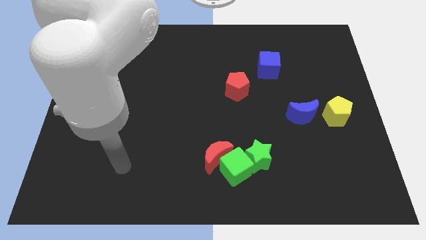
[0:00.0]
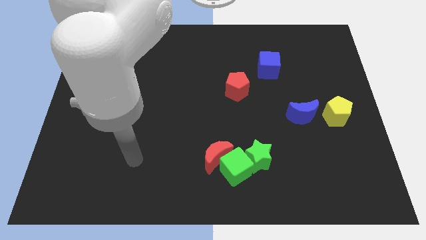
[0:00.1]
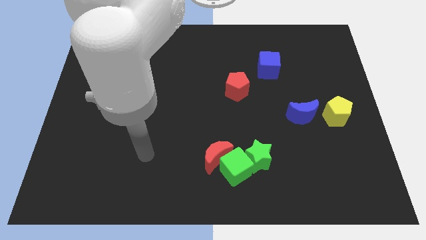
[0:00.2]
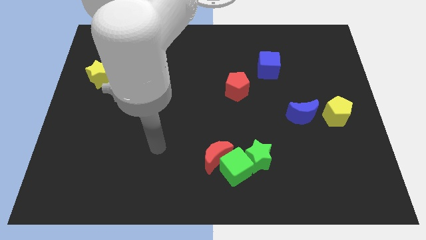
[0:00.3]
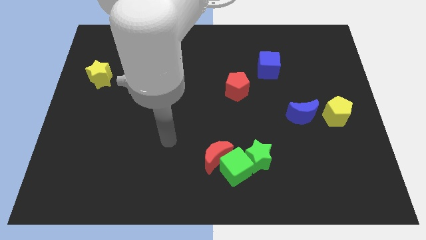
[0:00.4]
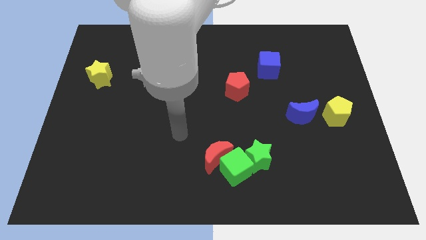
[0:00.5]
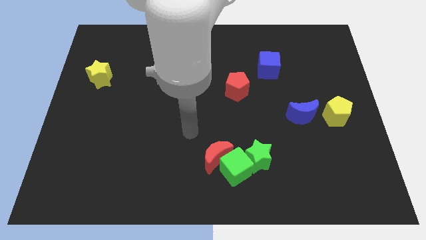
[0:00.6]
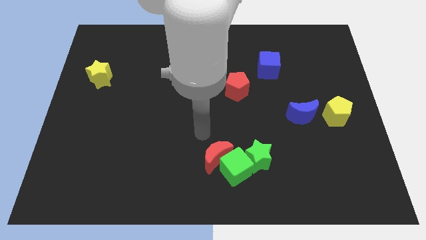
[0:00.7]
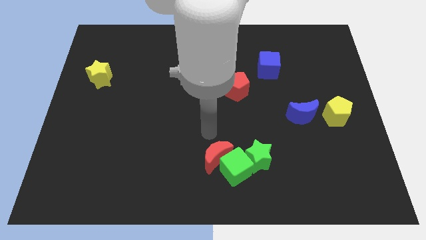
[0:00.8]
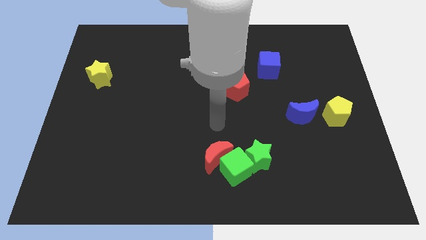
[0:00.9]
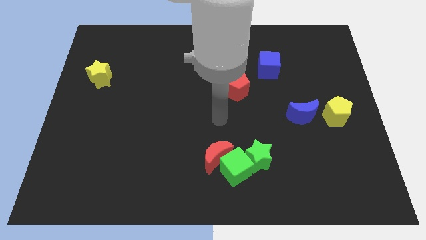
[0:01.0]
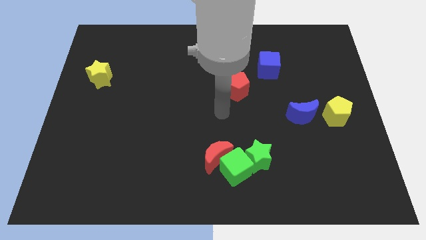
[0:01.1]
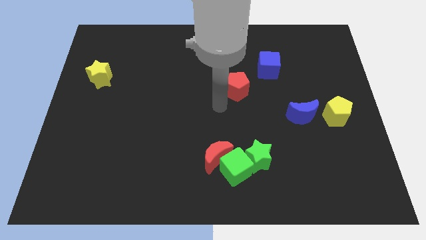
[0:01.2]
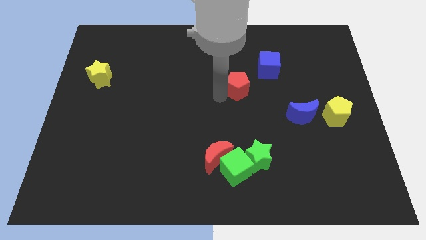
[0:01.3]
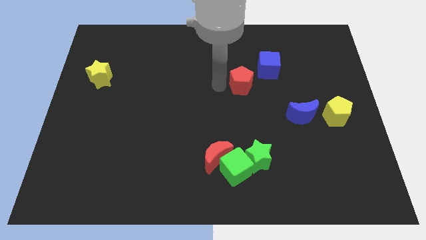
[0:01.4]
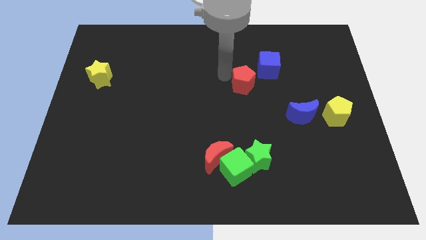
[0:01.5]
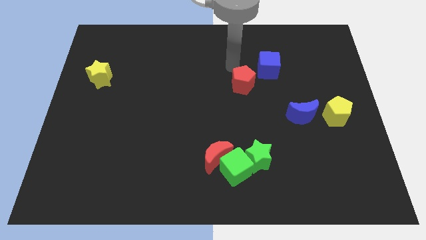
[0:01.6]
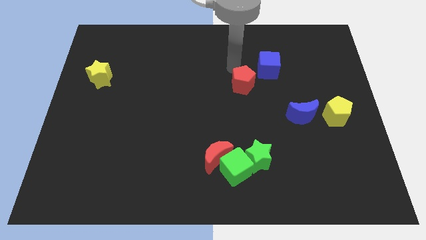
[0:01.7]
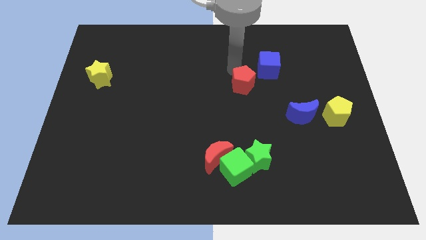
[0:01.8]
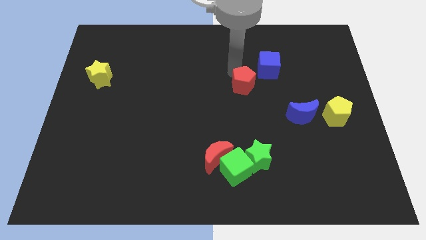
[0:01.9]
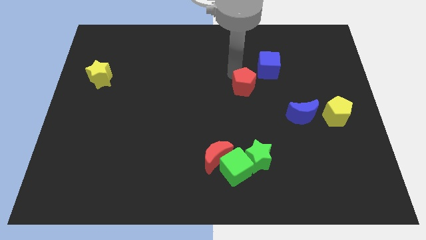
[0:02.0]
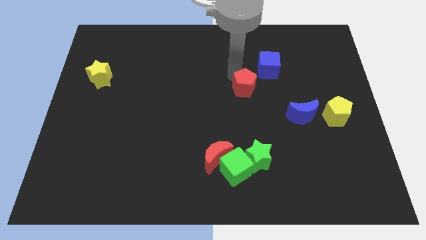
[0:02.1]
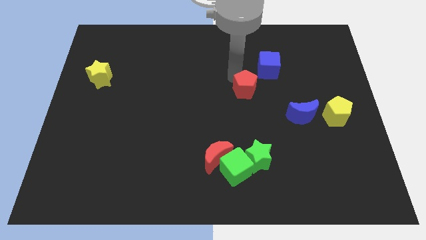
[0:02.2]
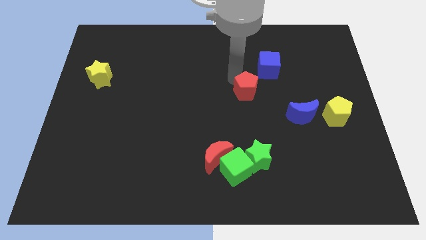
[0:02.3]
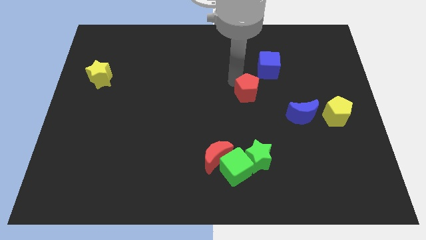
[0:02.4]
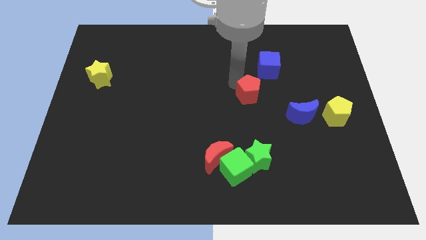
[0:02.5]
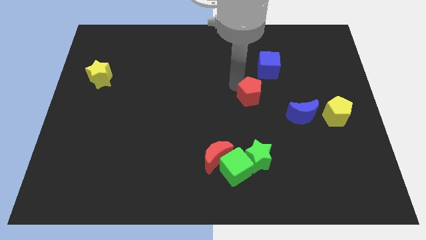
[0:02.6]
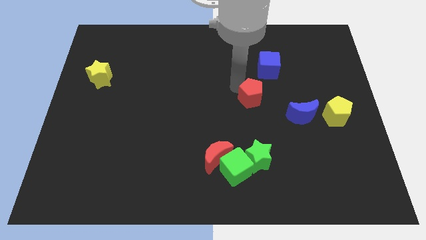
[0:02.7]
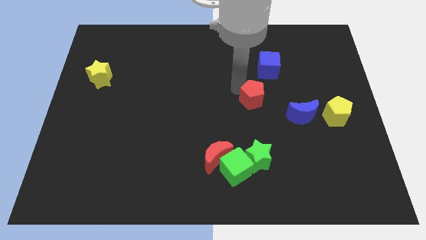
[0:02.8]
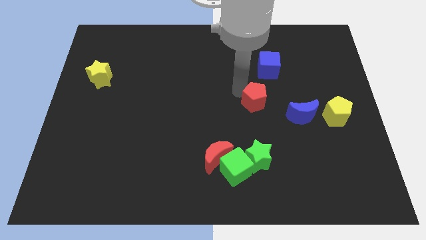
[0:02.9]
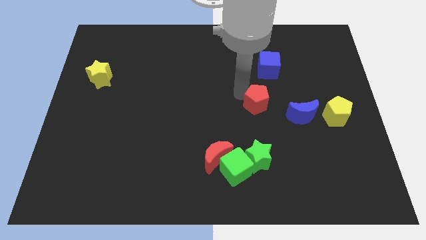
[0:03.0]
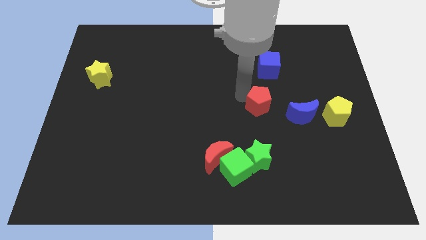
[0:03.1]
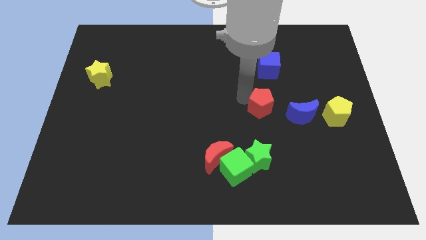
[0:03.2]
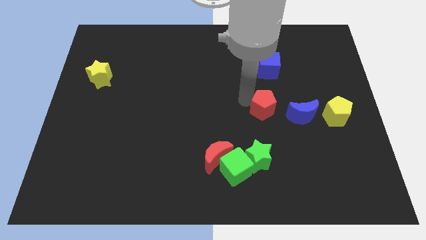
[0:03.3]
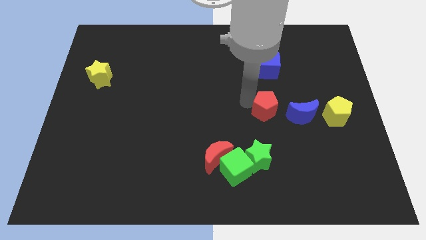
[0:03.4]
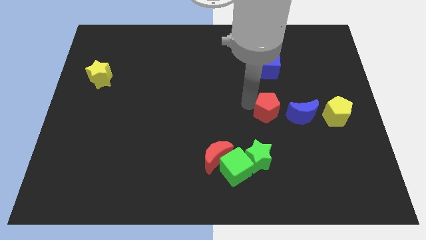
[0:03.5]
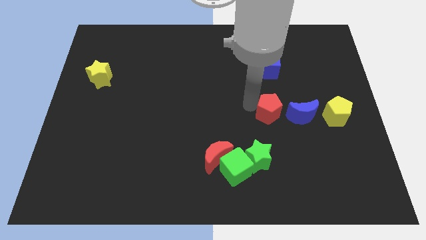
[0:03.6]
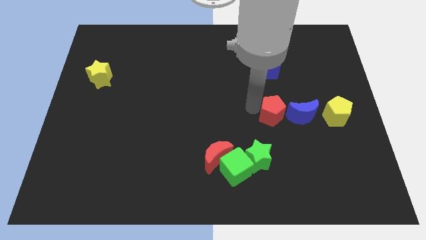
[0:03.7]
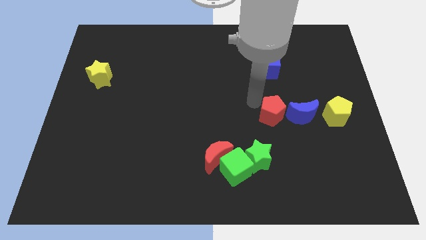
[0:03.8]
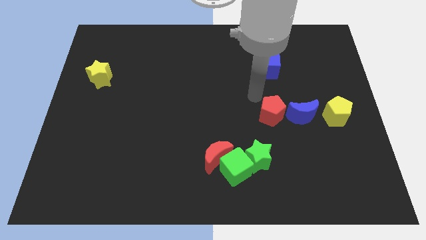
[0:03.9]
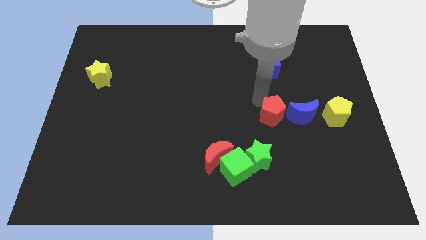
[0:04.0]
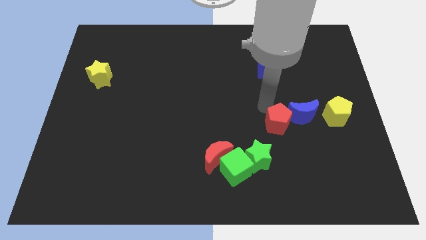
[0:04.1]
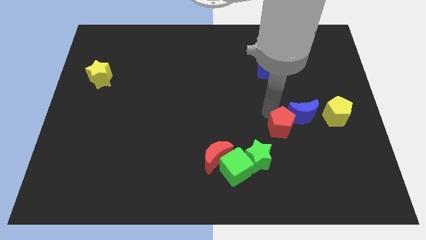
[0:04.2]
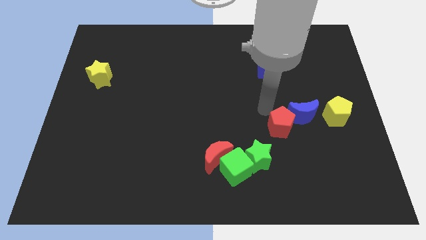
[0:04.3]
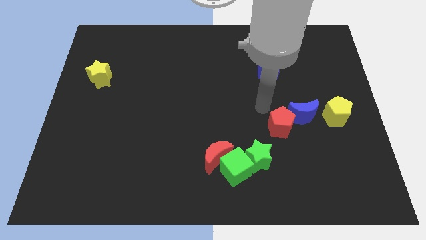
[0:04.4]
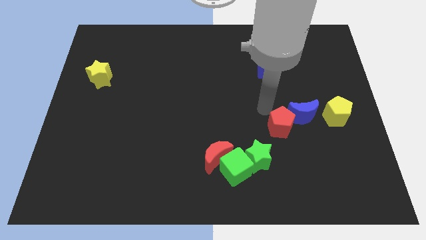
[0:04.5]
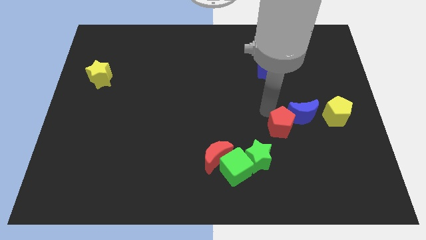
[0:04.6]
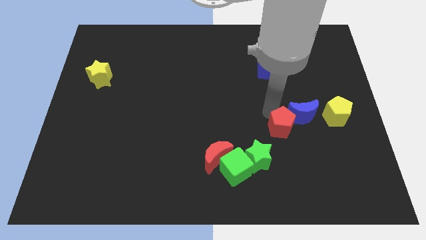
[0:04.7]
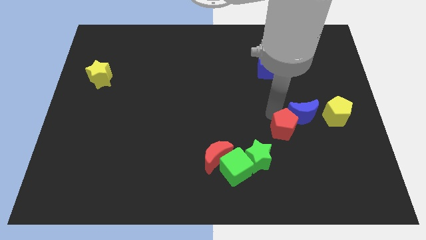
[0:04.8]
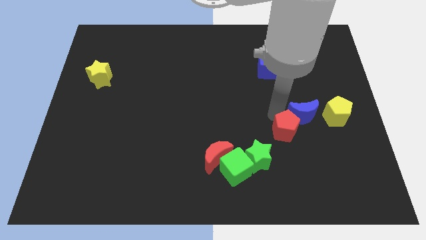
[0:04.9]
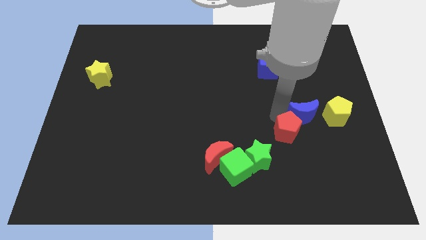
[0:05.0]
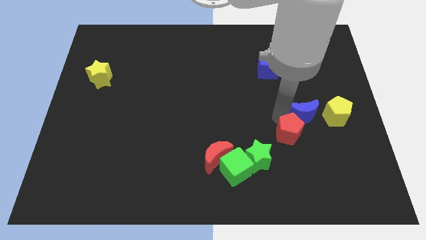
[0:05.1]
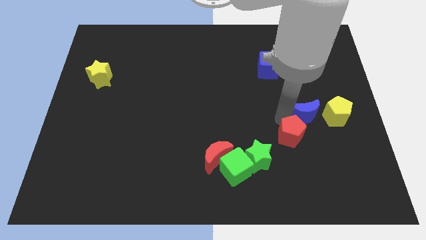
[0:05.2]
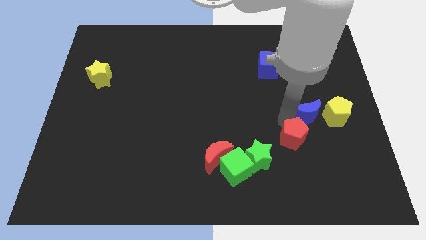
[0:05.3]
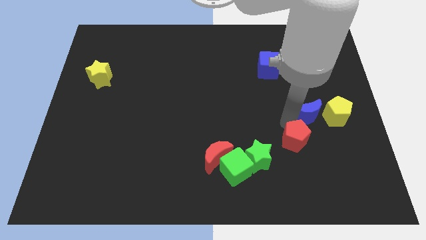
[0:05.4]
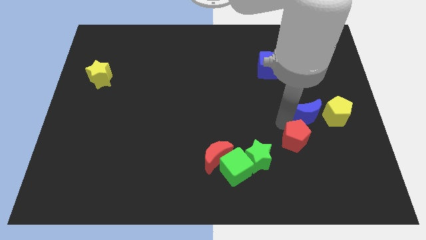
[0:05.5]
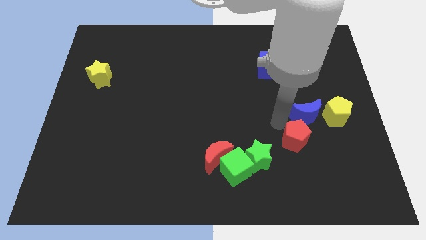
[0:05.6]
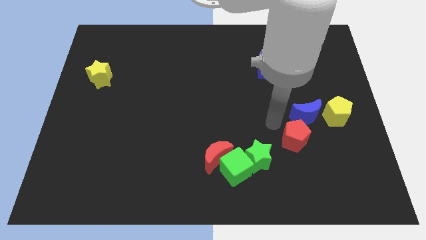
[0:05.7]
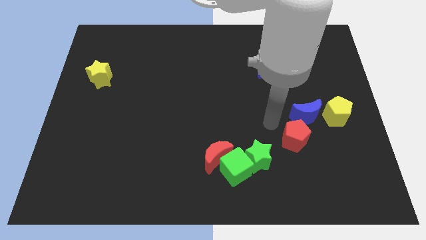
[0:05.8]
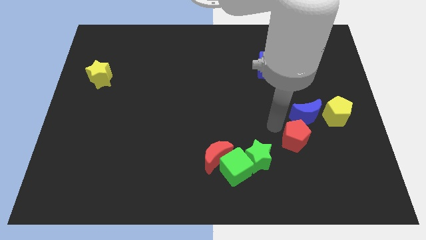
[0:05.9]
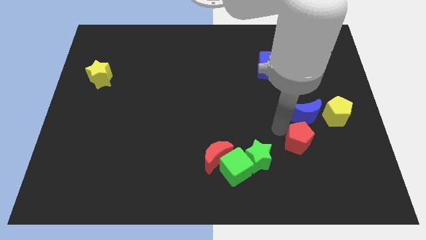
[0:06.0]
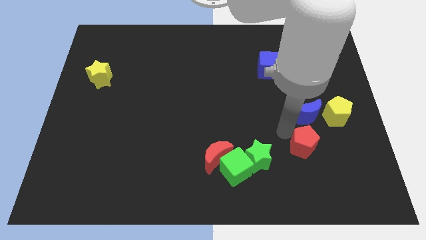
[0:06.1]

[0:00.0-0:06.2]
push the red pentagon diagonally downwards and right

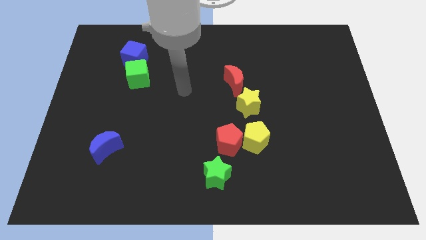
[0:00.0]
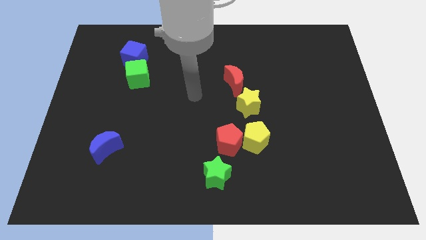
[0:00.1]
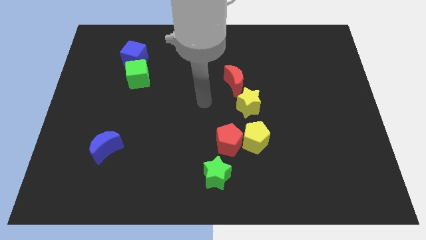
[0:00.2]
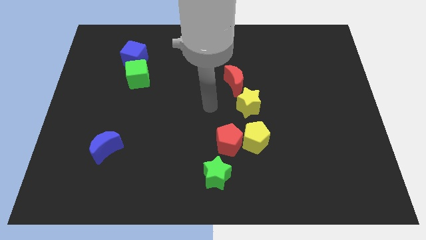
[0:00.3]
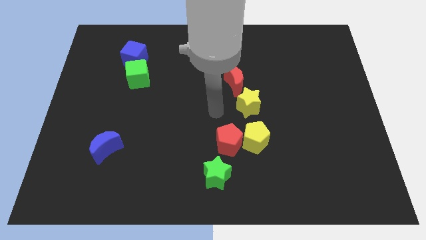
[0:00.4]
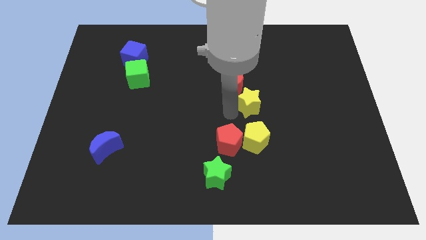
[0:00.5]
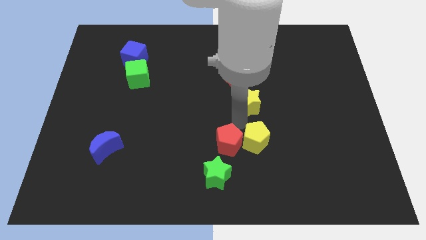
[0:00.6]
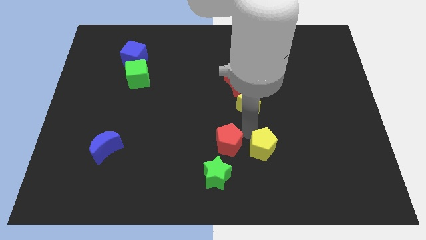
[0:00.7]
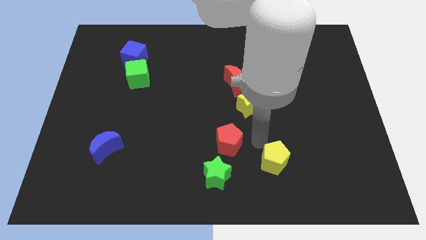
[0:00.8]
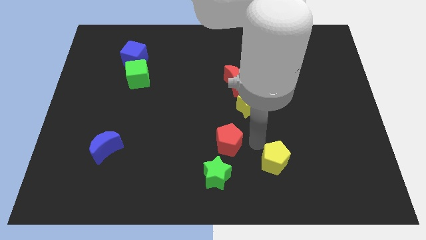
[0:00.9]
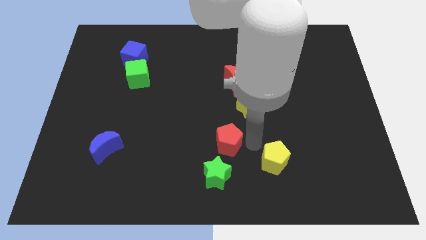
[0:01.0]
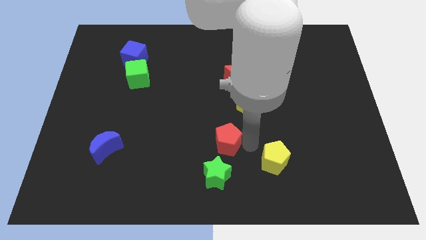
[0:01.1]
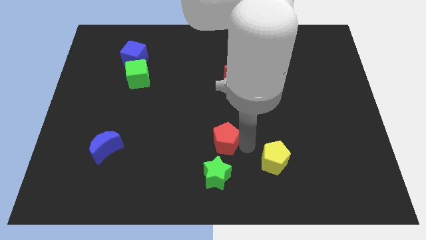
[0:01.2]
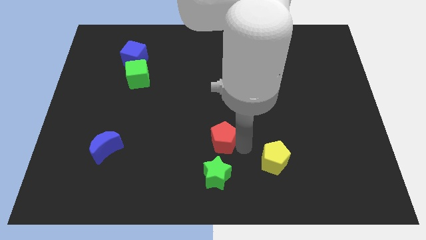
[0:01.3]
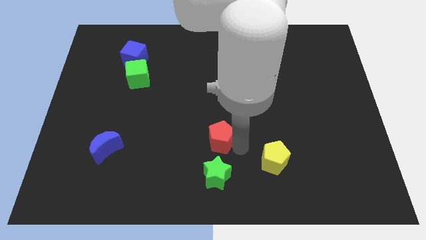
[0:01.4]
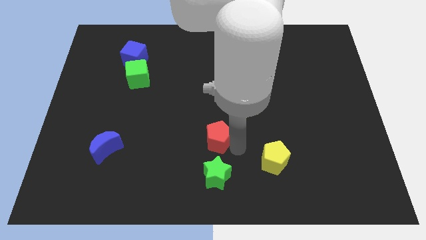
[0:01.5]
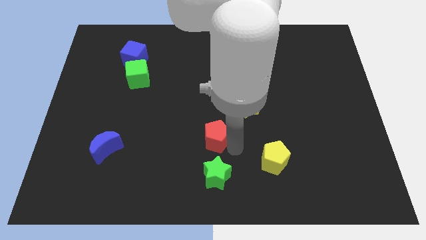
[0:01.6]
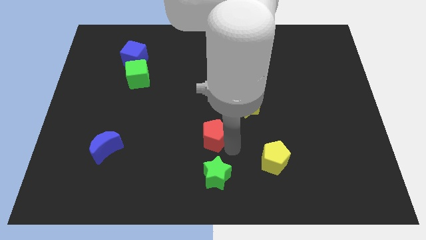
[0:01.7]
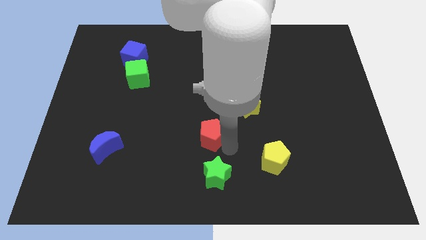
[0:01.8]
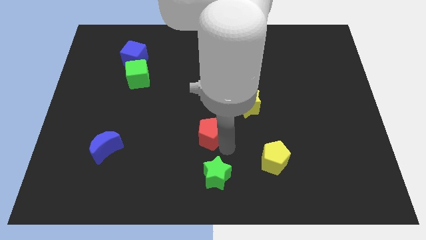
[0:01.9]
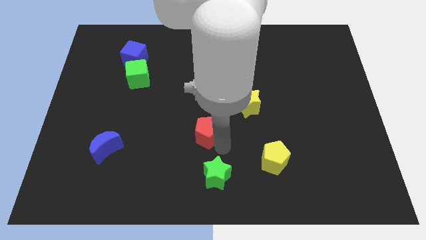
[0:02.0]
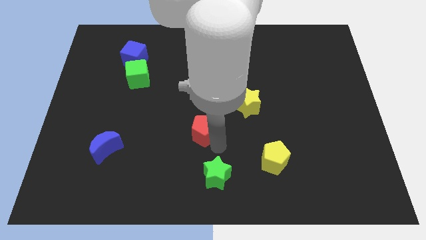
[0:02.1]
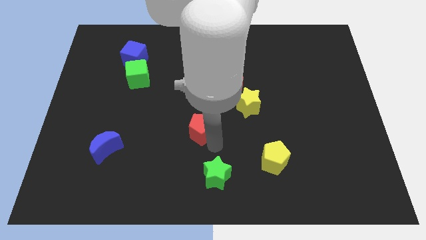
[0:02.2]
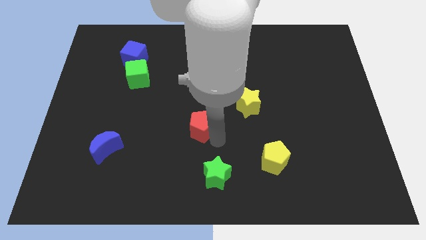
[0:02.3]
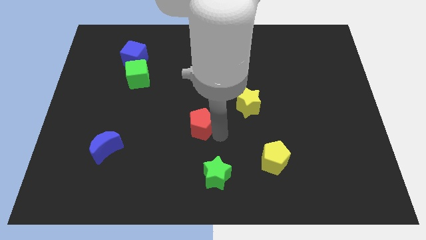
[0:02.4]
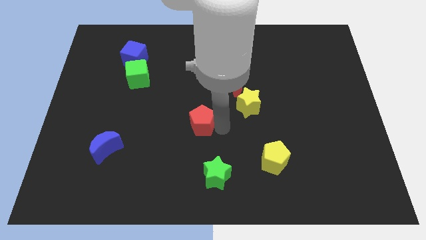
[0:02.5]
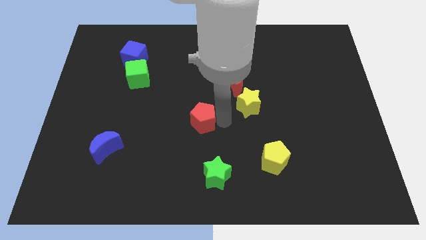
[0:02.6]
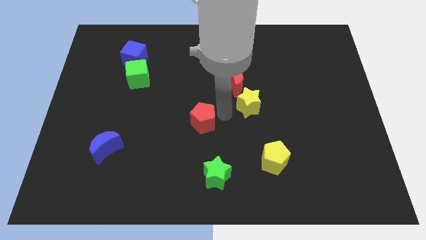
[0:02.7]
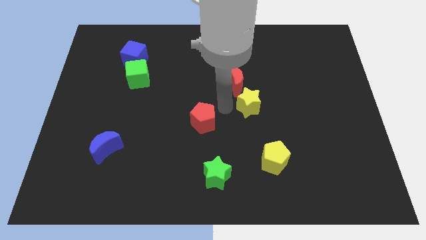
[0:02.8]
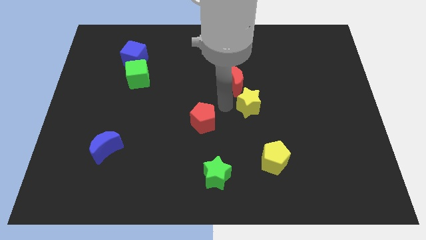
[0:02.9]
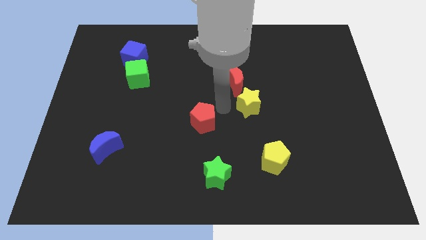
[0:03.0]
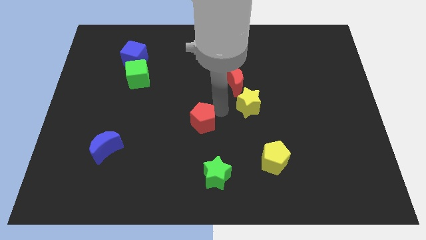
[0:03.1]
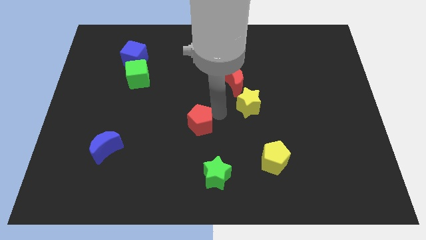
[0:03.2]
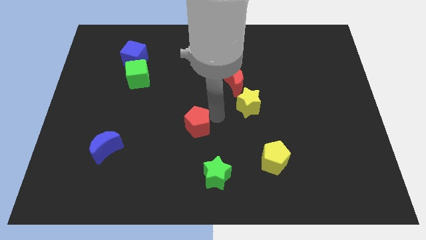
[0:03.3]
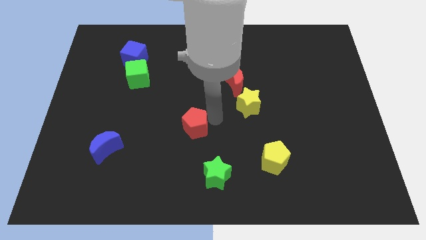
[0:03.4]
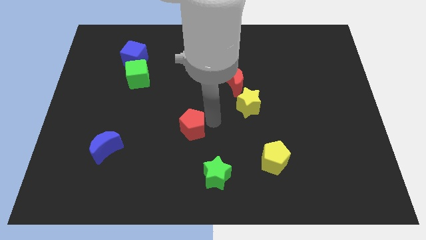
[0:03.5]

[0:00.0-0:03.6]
slightly move the red pentagon to the left
